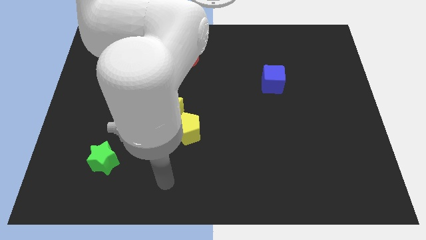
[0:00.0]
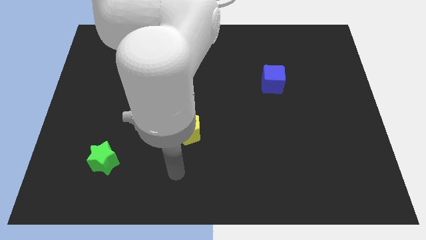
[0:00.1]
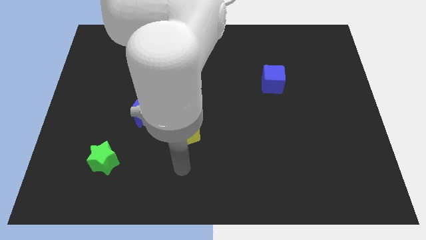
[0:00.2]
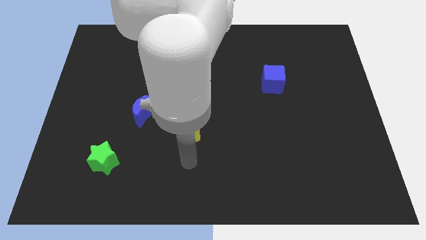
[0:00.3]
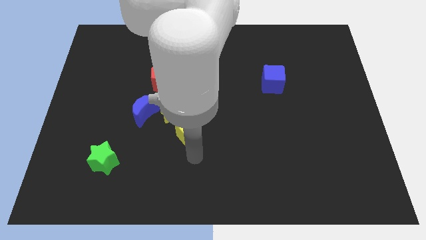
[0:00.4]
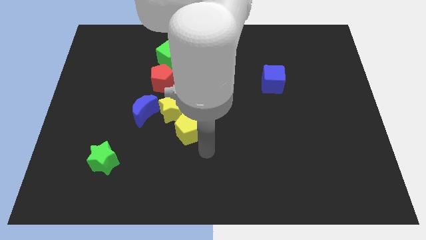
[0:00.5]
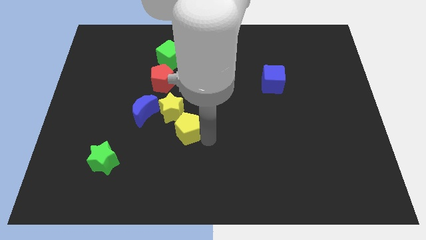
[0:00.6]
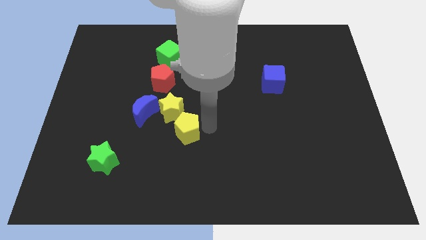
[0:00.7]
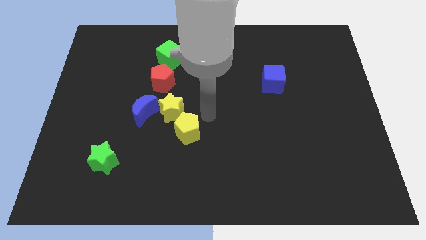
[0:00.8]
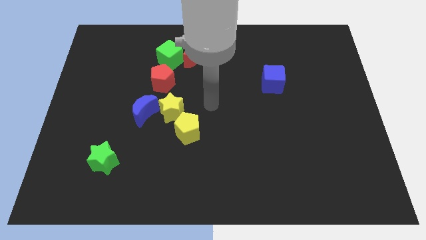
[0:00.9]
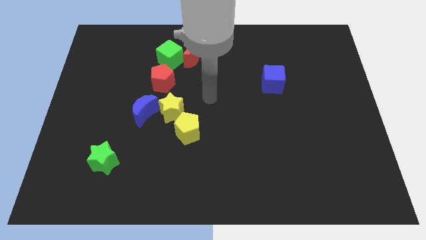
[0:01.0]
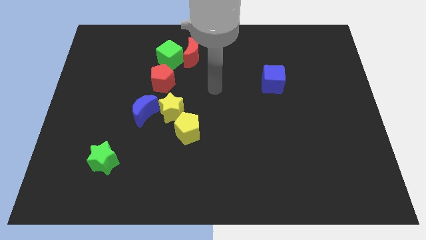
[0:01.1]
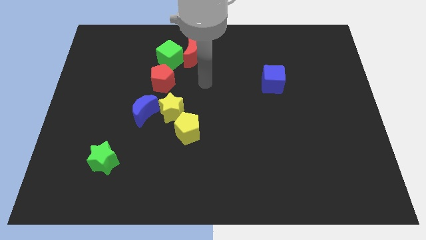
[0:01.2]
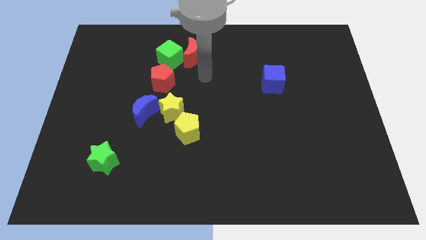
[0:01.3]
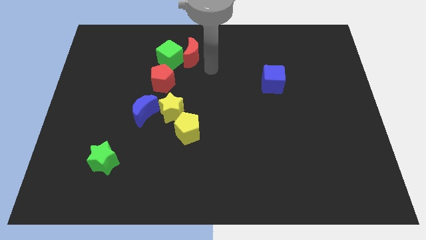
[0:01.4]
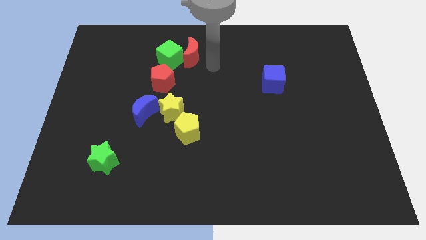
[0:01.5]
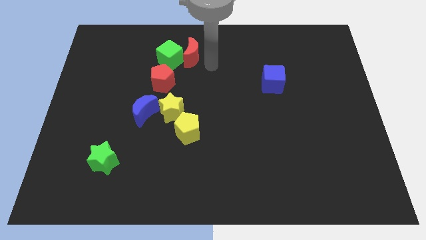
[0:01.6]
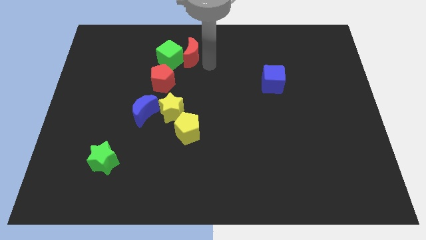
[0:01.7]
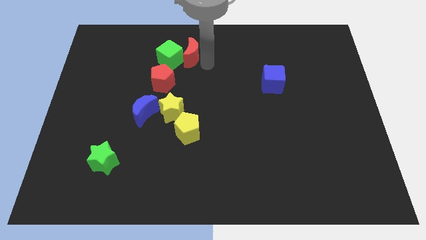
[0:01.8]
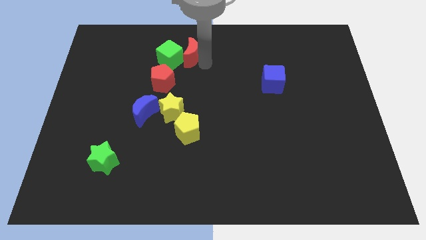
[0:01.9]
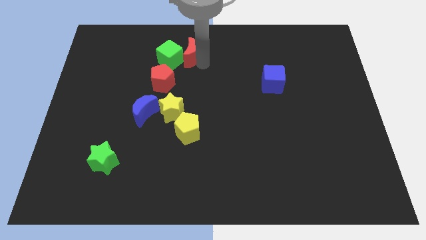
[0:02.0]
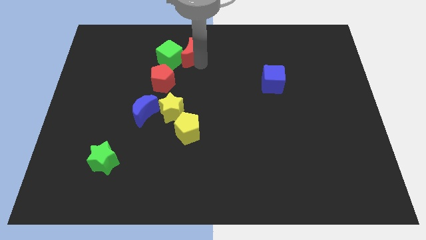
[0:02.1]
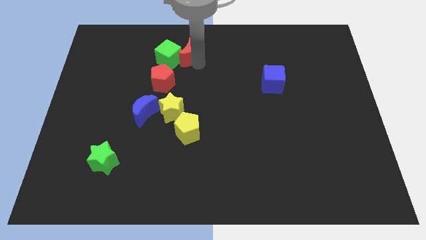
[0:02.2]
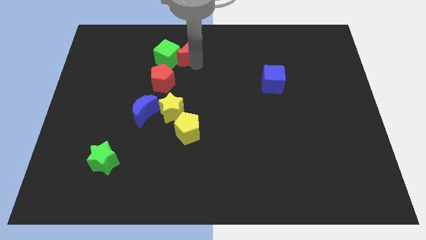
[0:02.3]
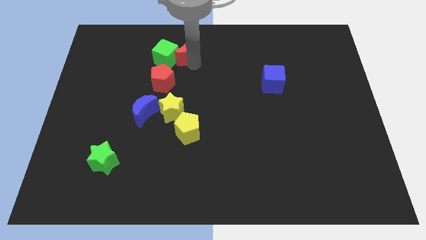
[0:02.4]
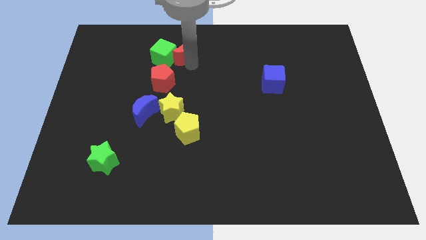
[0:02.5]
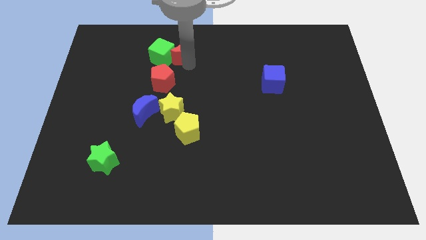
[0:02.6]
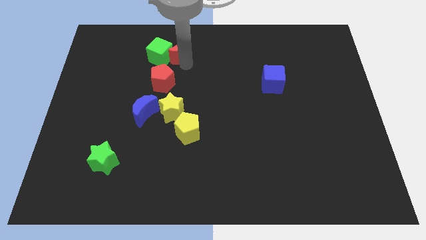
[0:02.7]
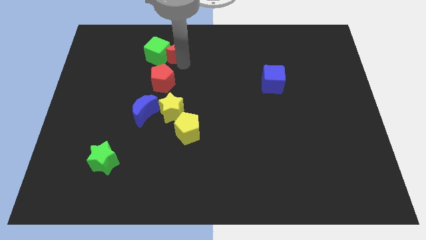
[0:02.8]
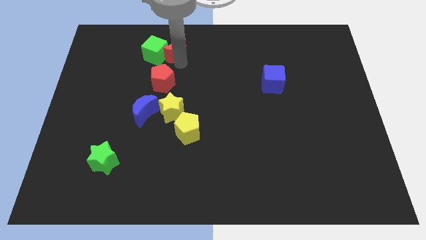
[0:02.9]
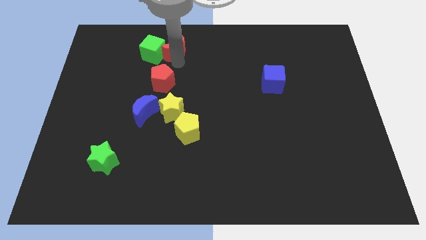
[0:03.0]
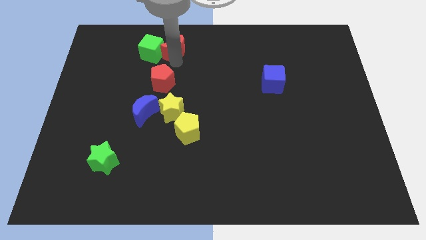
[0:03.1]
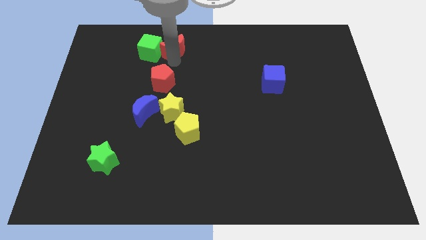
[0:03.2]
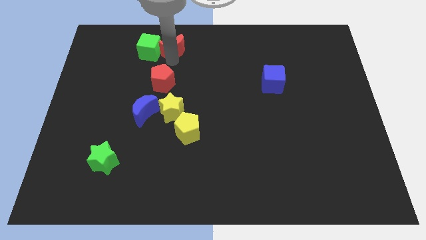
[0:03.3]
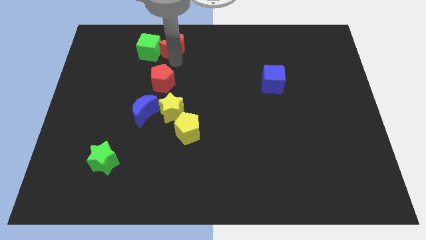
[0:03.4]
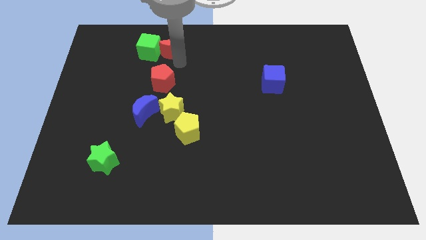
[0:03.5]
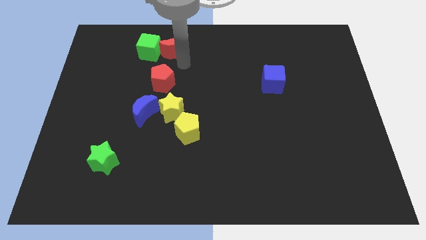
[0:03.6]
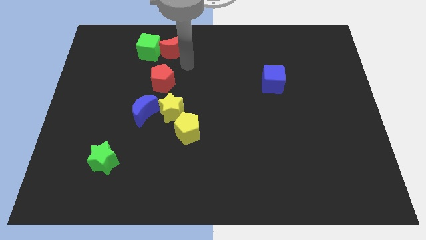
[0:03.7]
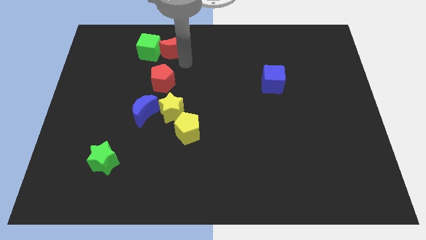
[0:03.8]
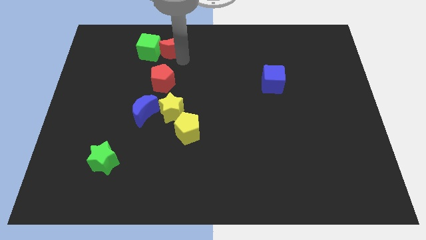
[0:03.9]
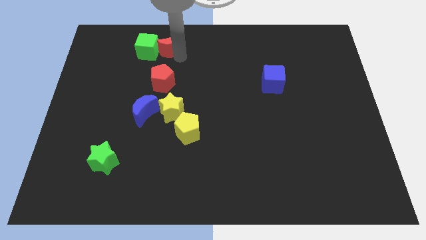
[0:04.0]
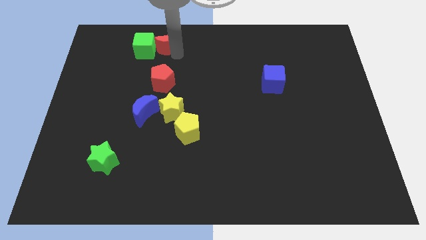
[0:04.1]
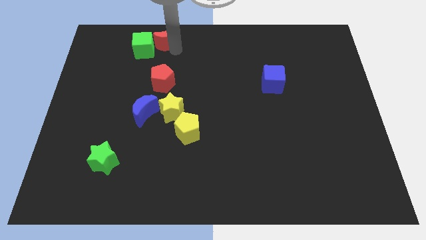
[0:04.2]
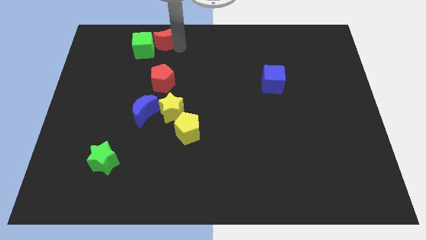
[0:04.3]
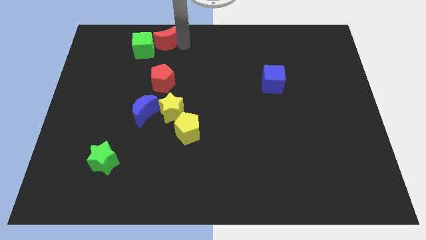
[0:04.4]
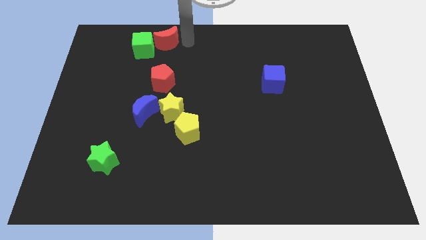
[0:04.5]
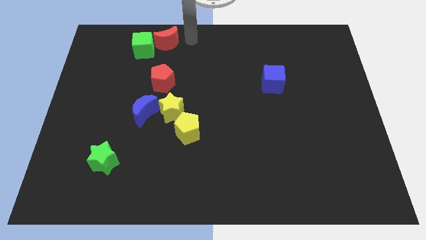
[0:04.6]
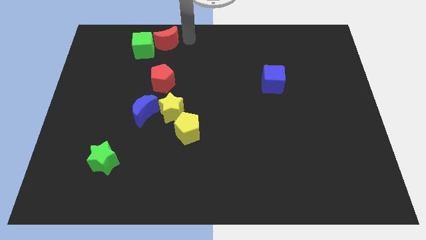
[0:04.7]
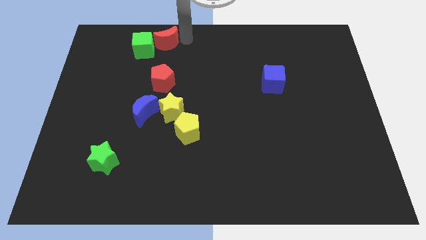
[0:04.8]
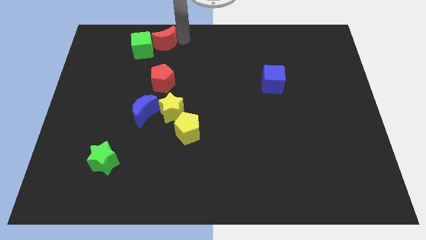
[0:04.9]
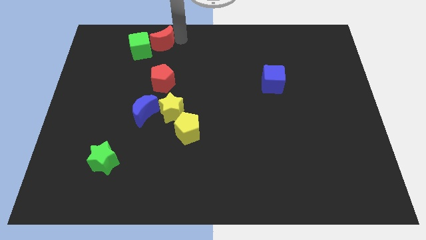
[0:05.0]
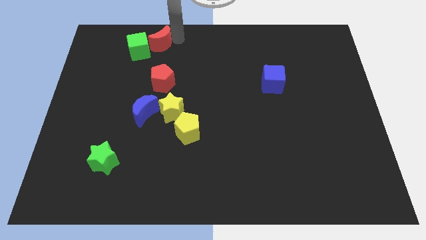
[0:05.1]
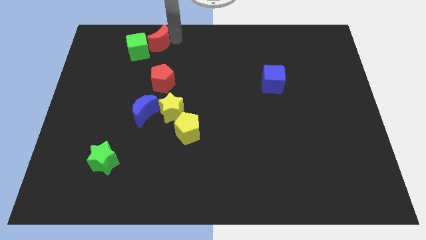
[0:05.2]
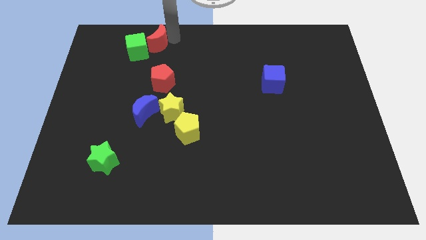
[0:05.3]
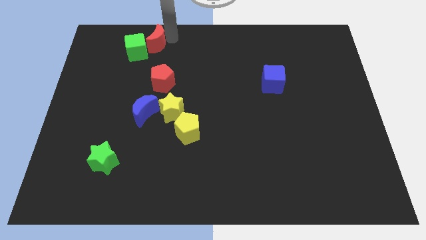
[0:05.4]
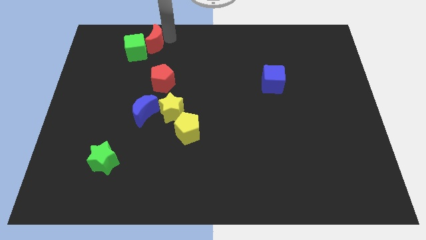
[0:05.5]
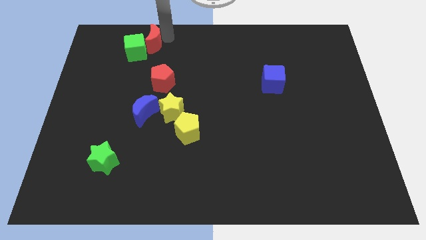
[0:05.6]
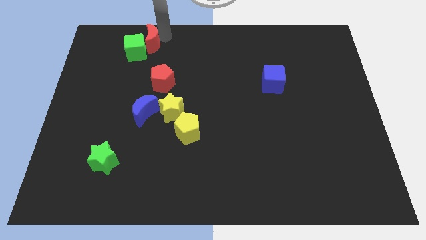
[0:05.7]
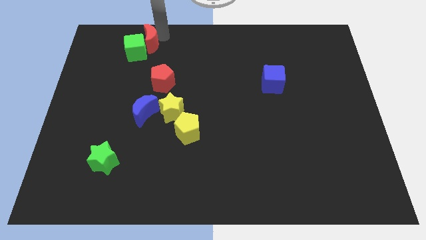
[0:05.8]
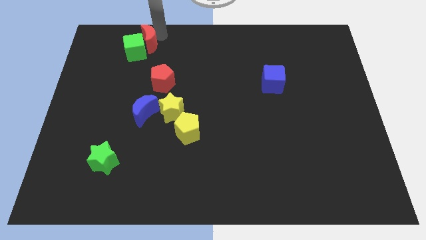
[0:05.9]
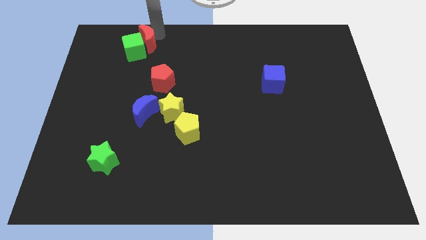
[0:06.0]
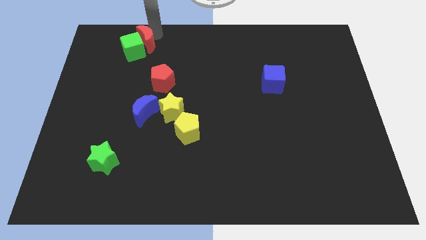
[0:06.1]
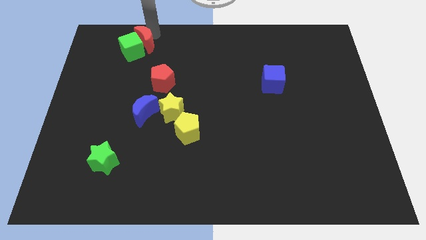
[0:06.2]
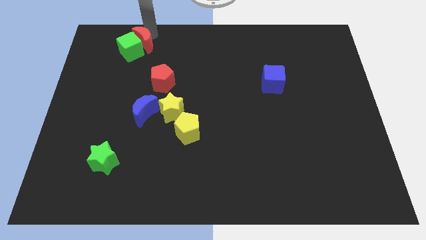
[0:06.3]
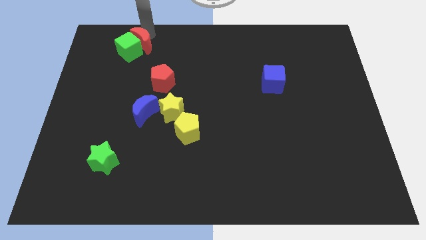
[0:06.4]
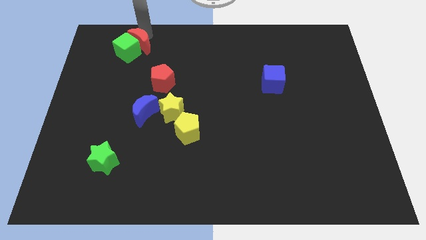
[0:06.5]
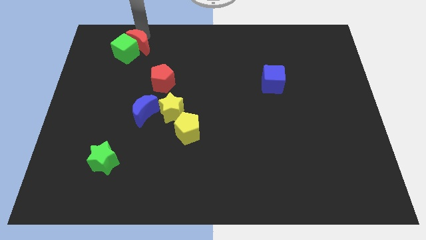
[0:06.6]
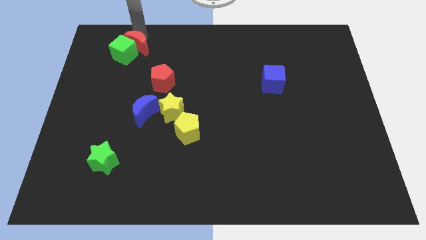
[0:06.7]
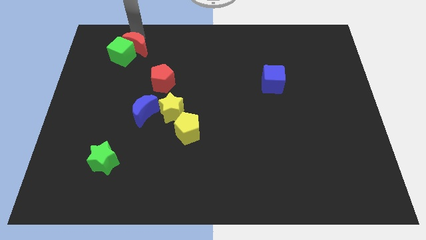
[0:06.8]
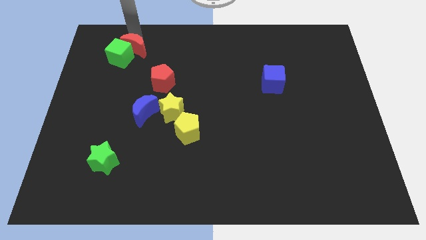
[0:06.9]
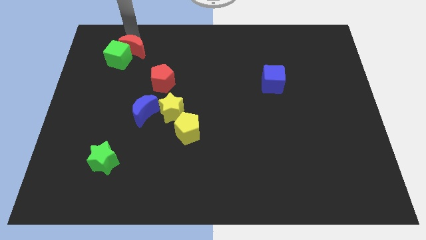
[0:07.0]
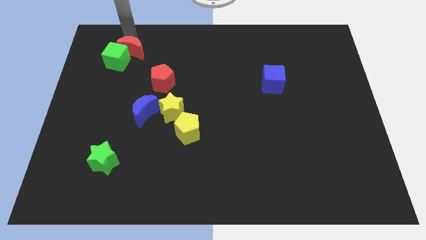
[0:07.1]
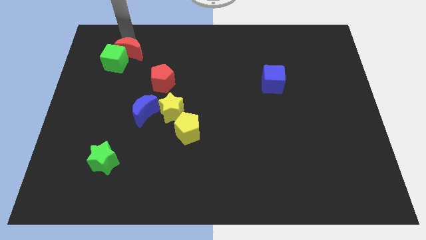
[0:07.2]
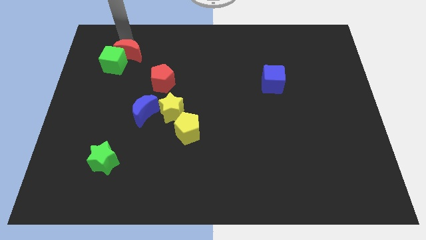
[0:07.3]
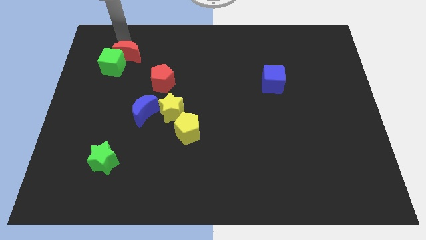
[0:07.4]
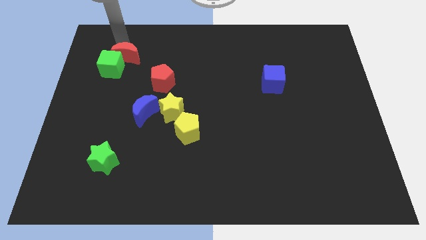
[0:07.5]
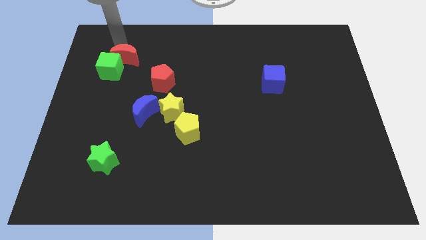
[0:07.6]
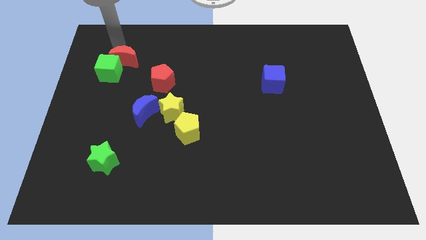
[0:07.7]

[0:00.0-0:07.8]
put the red moon diagonally up and to the left of the red pentagon
